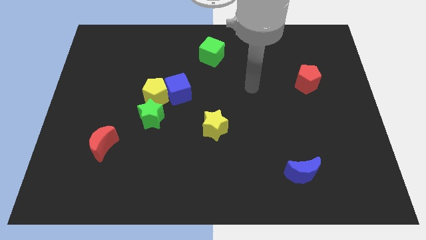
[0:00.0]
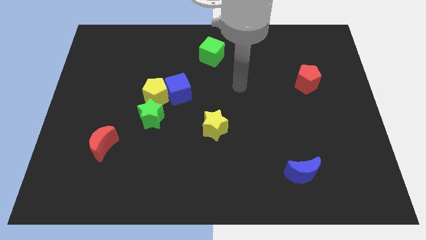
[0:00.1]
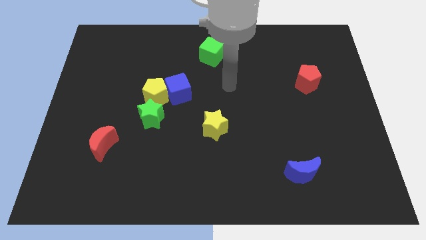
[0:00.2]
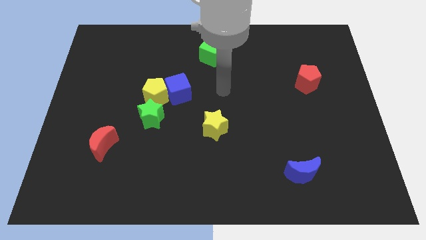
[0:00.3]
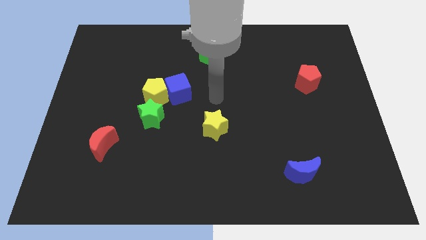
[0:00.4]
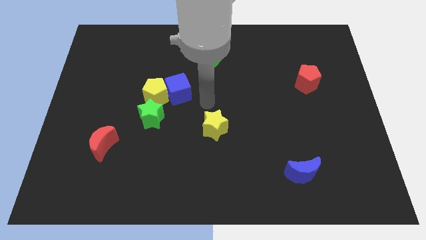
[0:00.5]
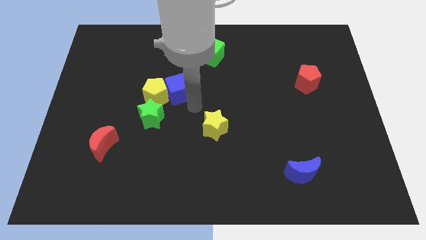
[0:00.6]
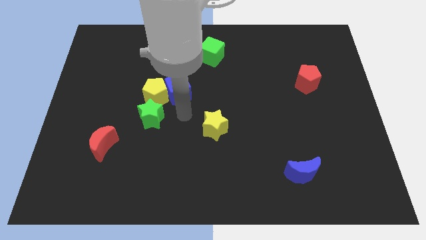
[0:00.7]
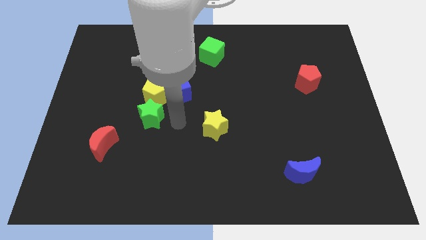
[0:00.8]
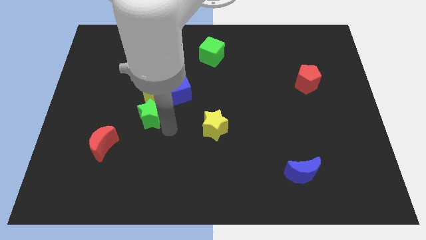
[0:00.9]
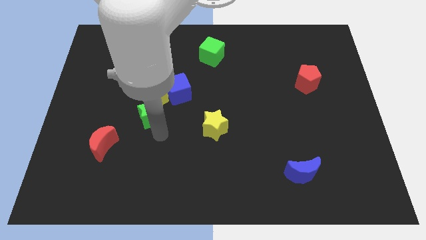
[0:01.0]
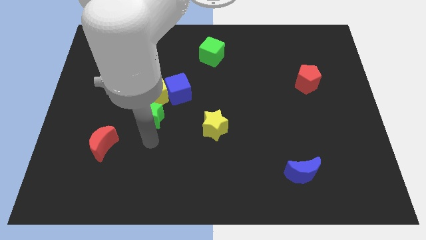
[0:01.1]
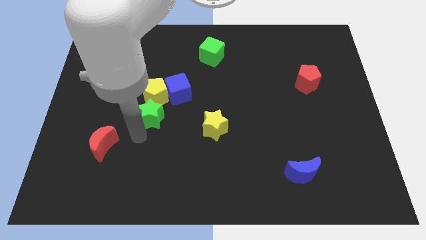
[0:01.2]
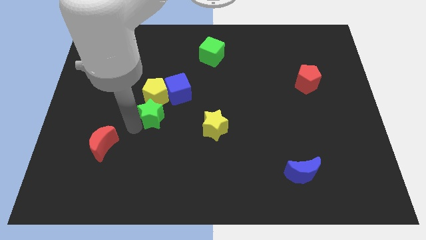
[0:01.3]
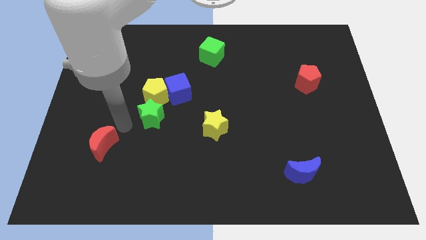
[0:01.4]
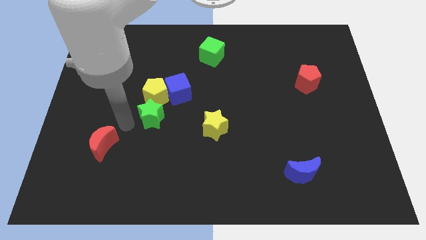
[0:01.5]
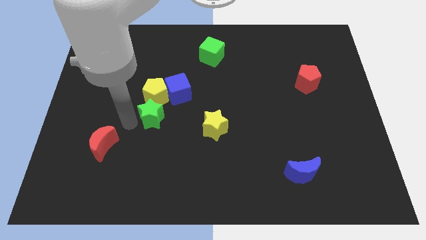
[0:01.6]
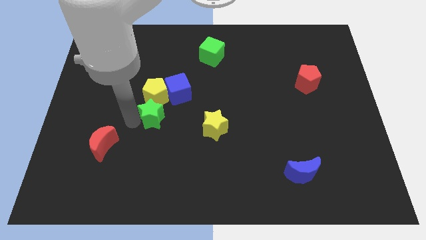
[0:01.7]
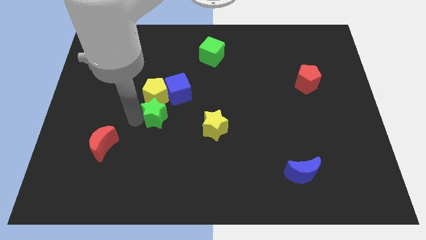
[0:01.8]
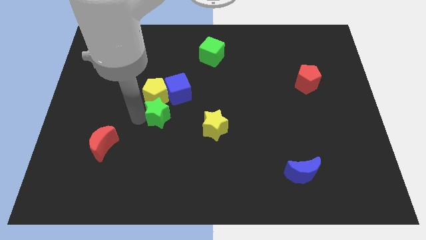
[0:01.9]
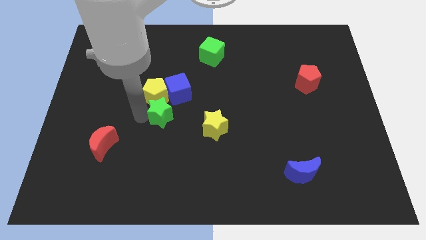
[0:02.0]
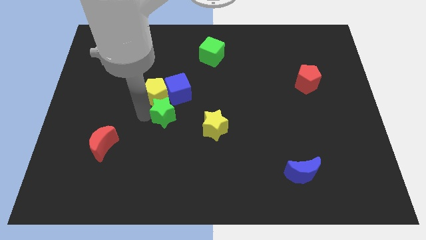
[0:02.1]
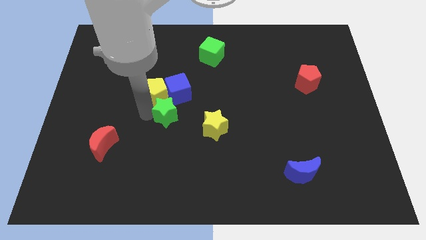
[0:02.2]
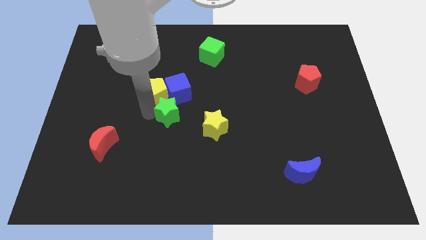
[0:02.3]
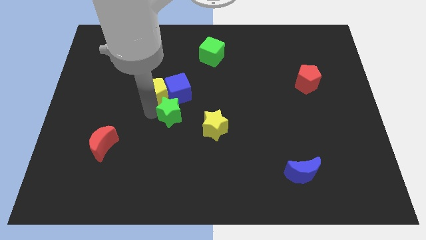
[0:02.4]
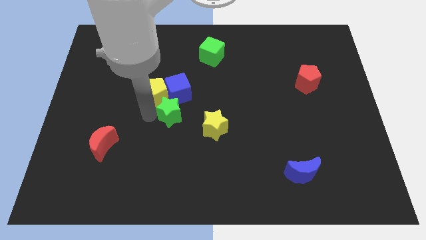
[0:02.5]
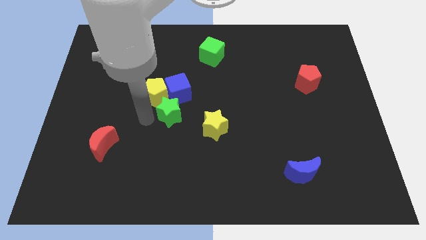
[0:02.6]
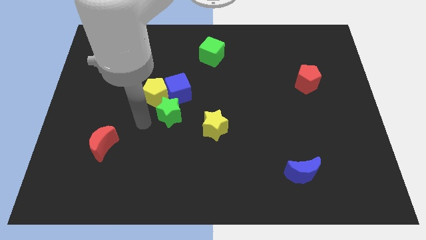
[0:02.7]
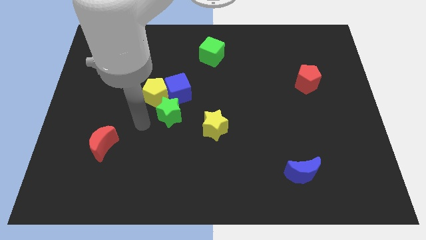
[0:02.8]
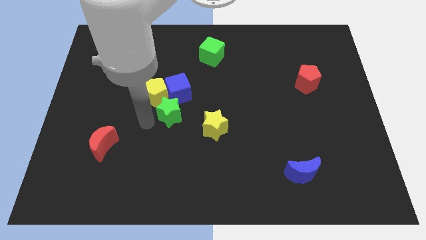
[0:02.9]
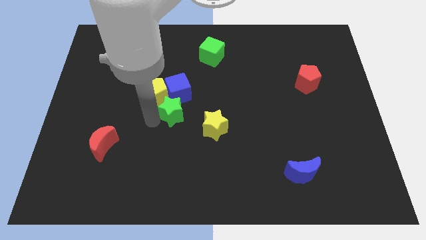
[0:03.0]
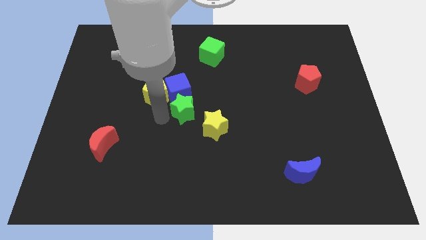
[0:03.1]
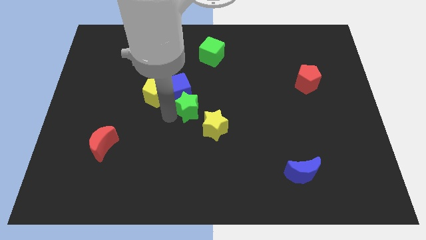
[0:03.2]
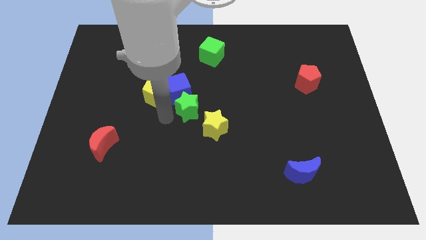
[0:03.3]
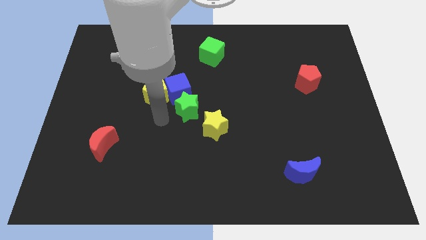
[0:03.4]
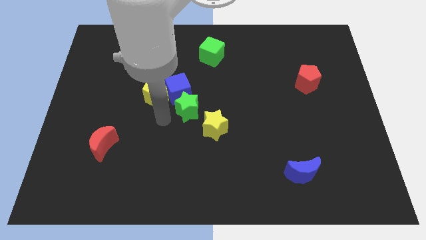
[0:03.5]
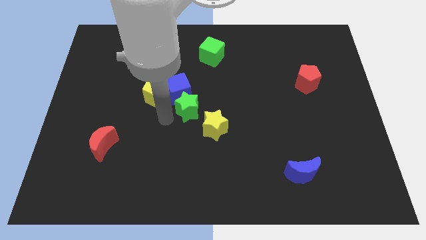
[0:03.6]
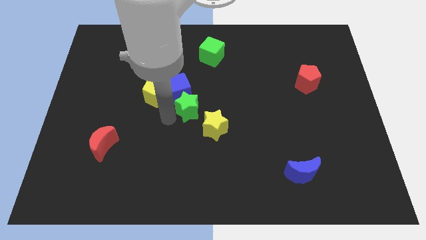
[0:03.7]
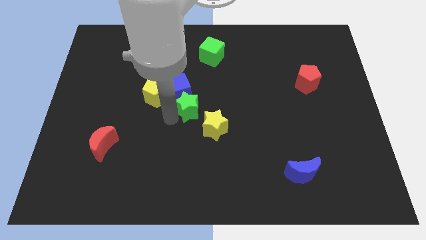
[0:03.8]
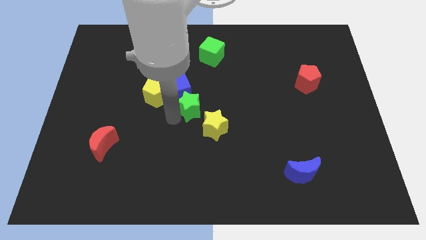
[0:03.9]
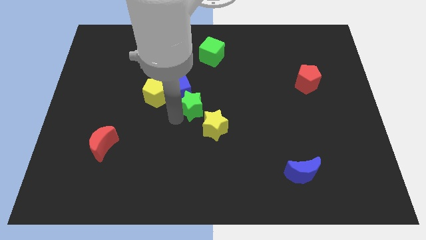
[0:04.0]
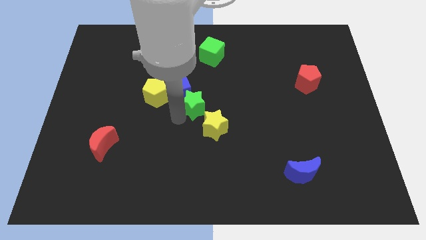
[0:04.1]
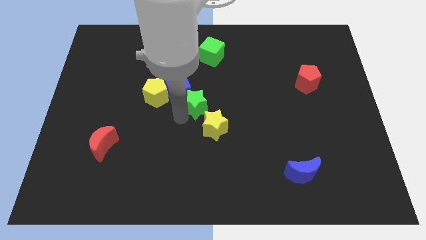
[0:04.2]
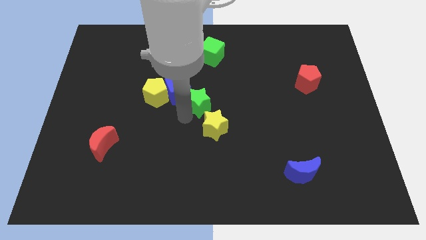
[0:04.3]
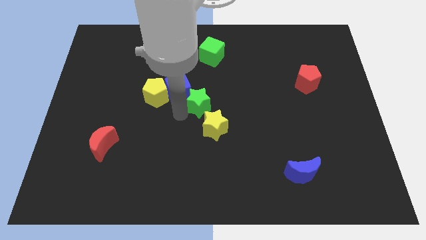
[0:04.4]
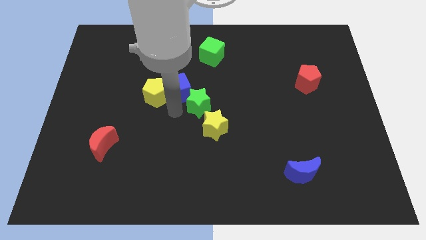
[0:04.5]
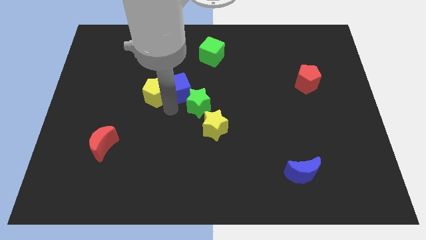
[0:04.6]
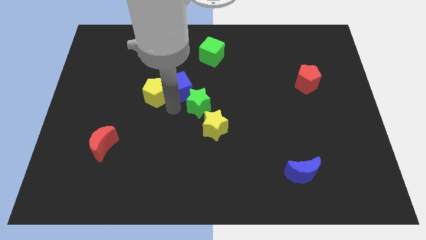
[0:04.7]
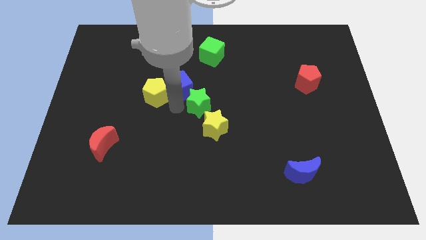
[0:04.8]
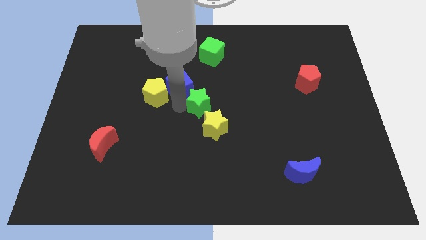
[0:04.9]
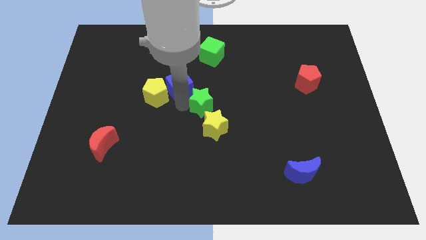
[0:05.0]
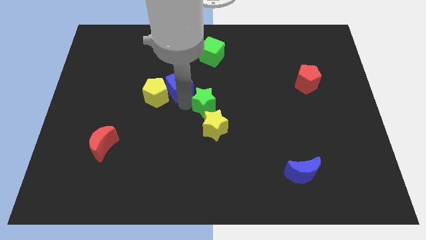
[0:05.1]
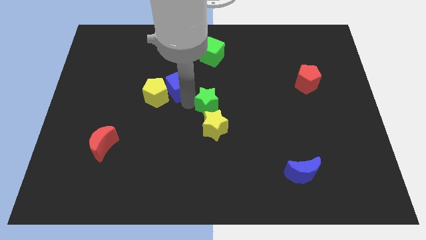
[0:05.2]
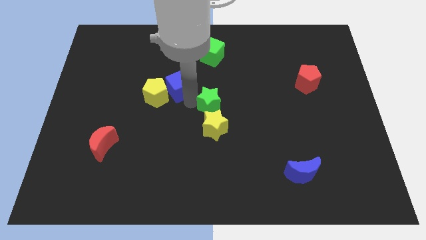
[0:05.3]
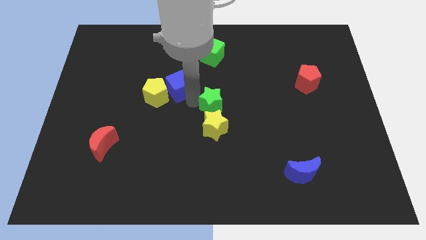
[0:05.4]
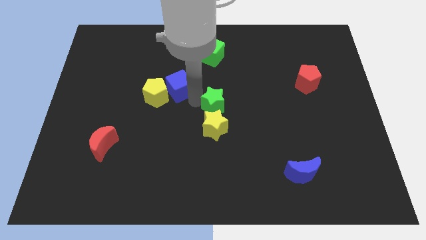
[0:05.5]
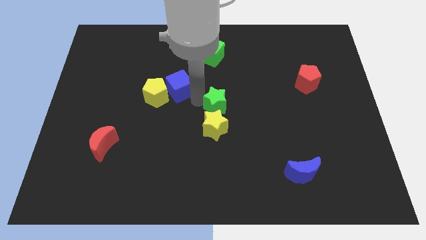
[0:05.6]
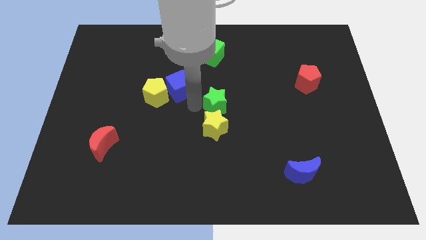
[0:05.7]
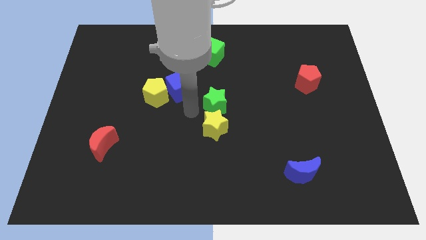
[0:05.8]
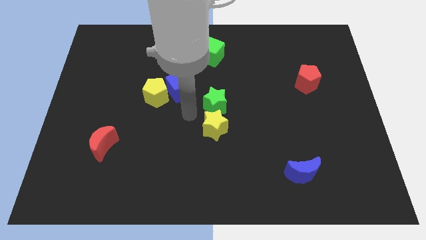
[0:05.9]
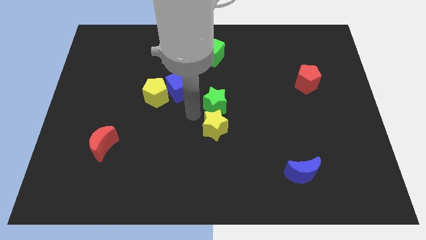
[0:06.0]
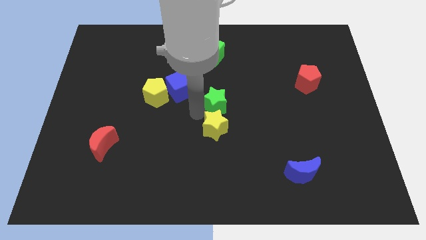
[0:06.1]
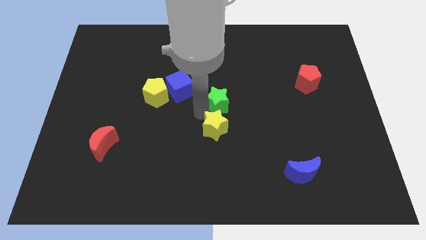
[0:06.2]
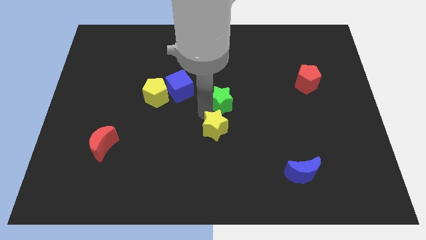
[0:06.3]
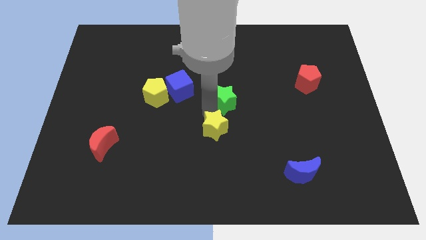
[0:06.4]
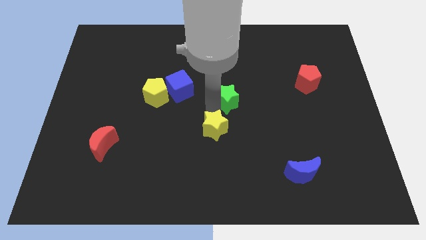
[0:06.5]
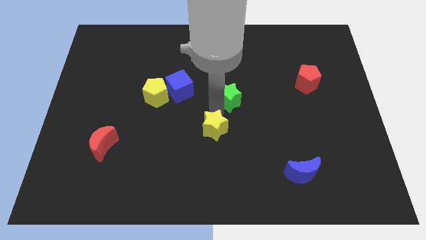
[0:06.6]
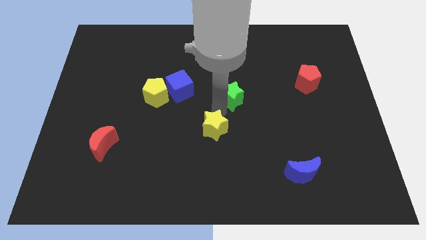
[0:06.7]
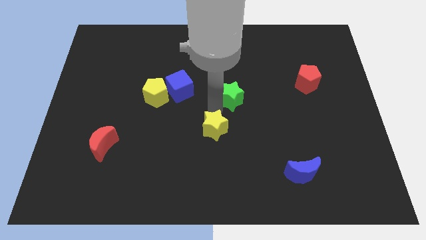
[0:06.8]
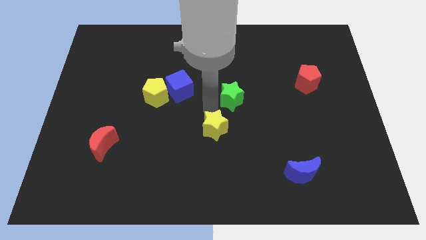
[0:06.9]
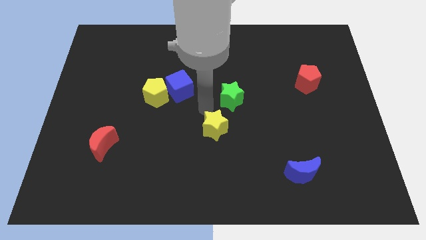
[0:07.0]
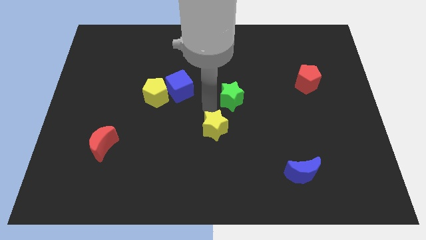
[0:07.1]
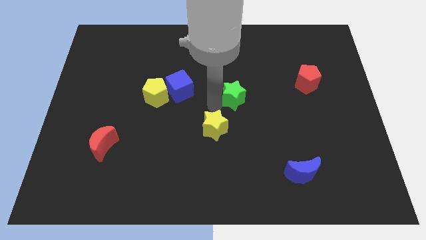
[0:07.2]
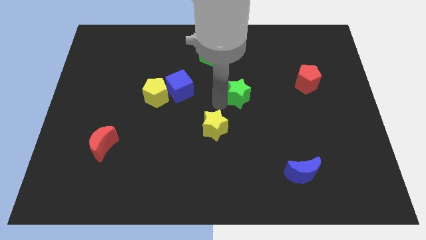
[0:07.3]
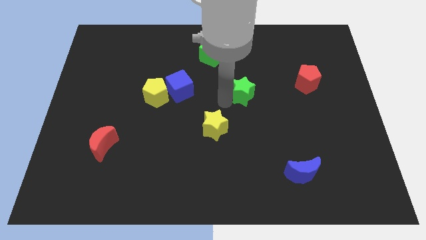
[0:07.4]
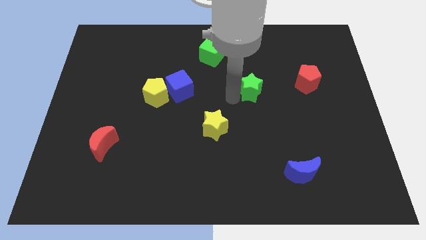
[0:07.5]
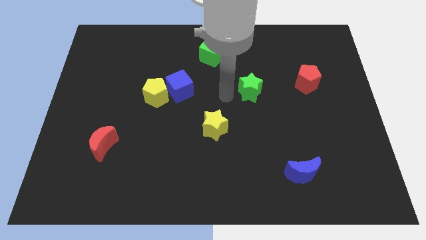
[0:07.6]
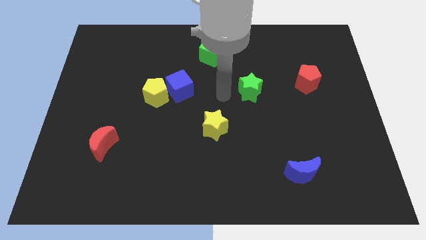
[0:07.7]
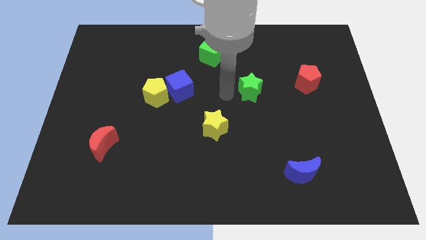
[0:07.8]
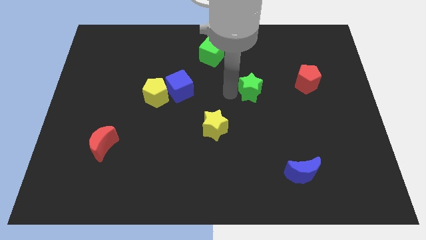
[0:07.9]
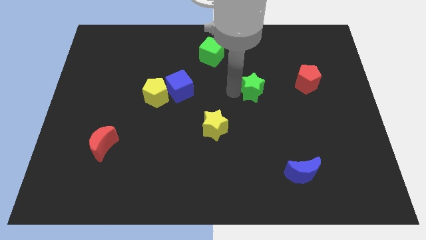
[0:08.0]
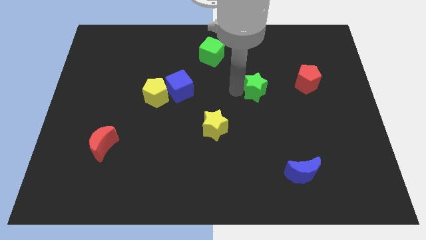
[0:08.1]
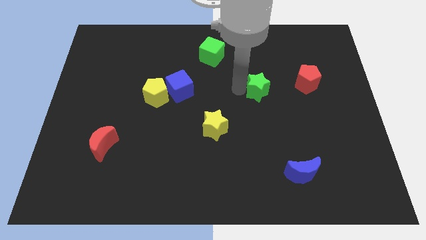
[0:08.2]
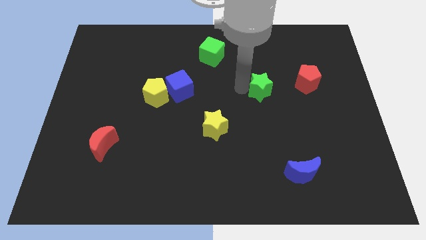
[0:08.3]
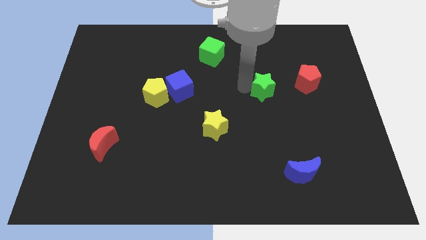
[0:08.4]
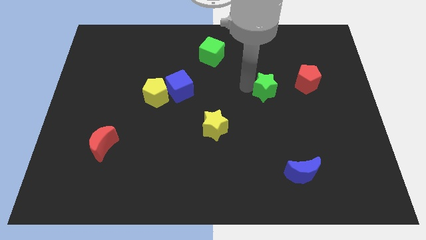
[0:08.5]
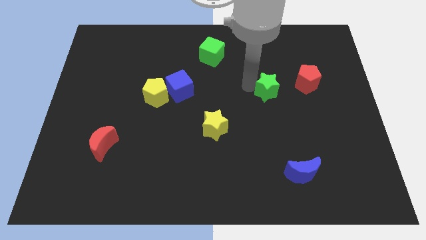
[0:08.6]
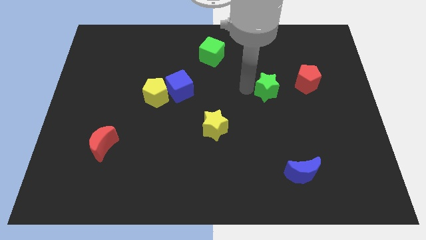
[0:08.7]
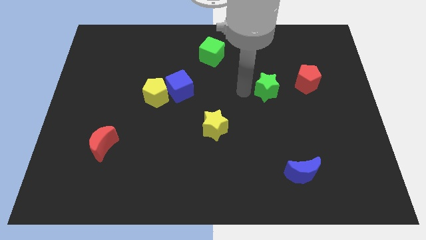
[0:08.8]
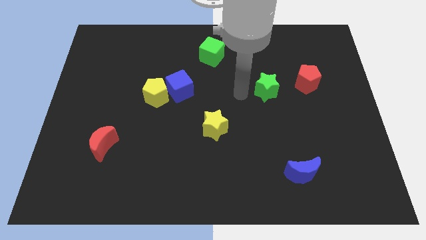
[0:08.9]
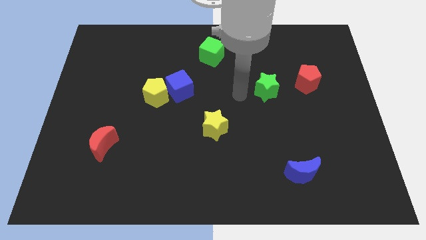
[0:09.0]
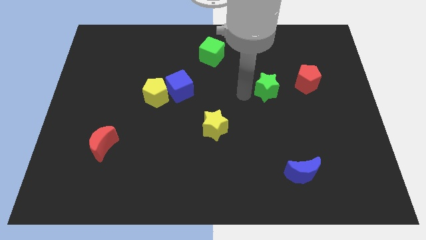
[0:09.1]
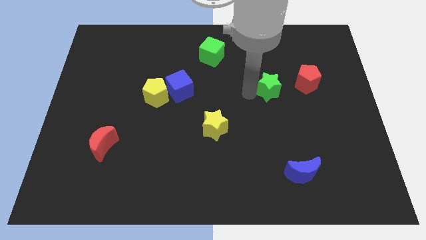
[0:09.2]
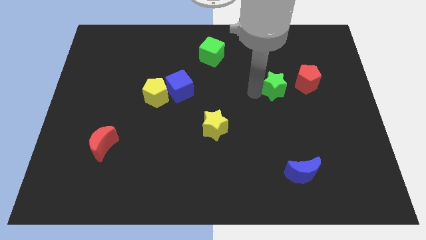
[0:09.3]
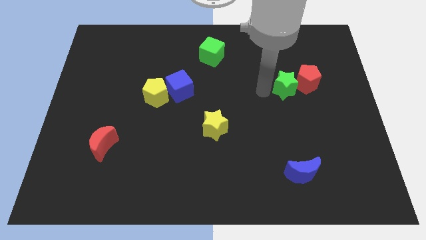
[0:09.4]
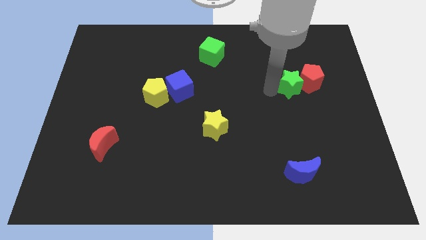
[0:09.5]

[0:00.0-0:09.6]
push the green star to the red pentagon
